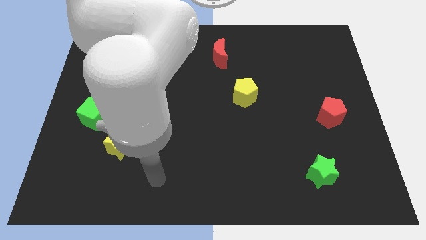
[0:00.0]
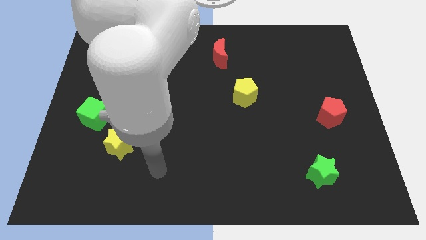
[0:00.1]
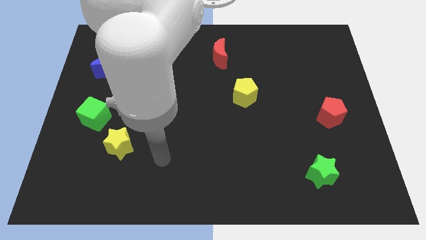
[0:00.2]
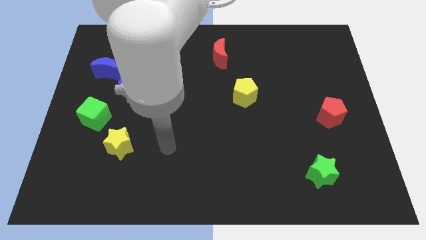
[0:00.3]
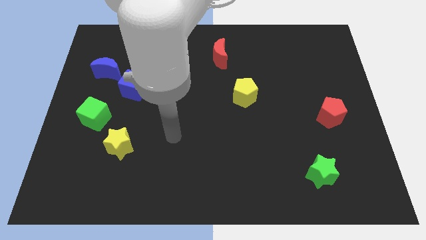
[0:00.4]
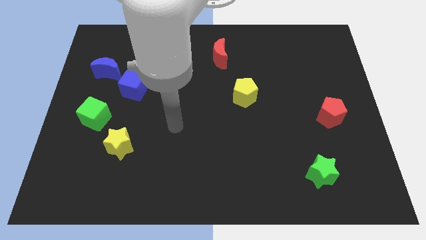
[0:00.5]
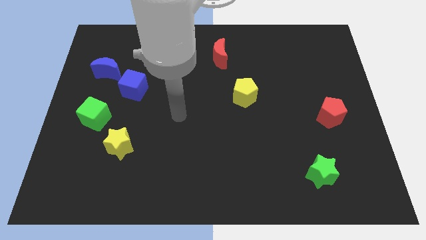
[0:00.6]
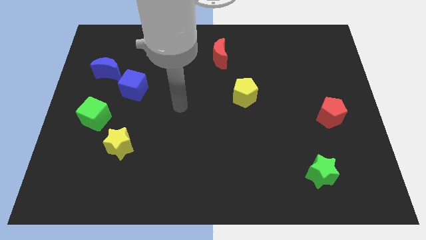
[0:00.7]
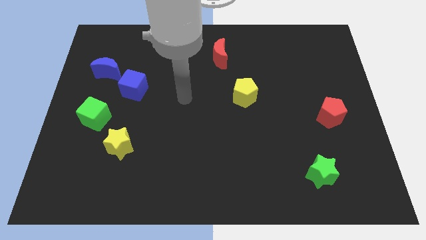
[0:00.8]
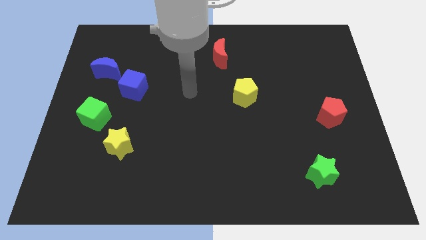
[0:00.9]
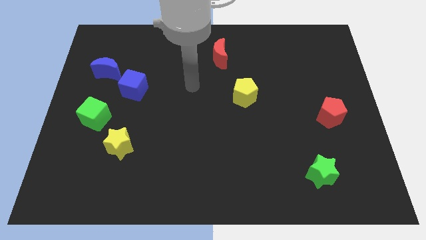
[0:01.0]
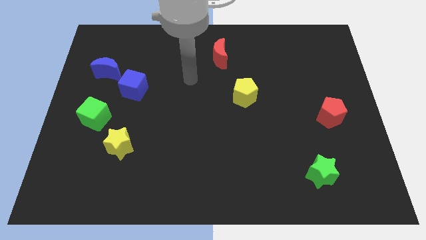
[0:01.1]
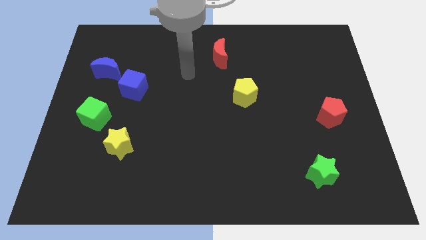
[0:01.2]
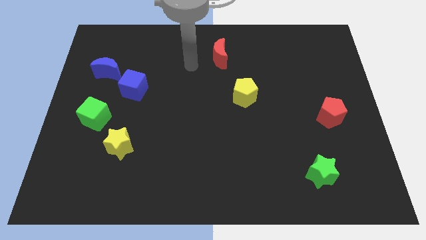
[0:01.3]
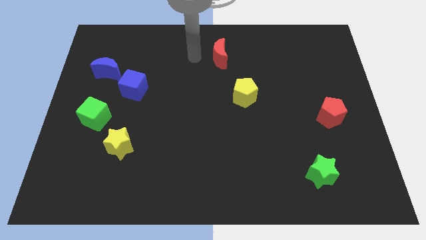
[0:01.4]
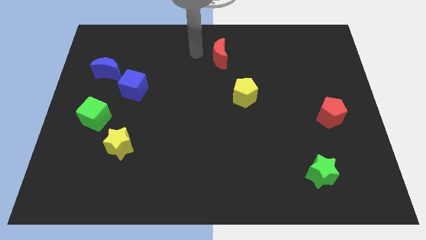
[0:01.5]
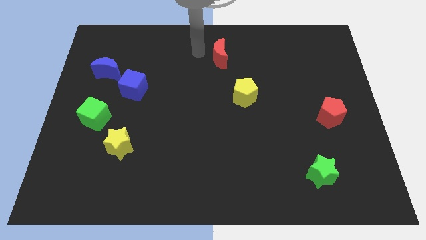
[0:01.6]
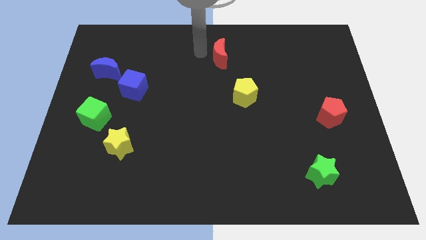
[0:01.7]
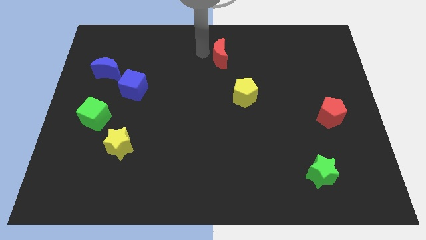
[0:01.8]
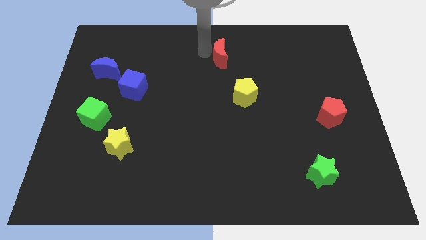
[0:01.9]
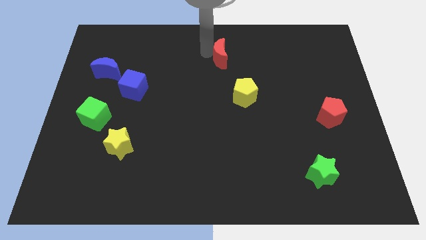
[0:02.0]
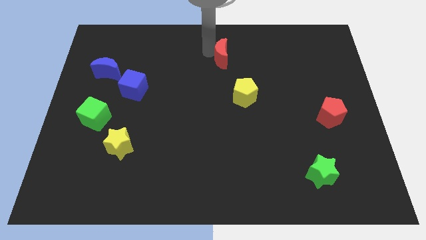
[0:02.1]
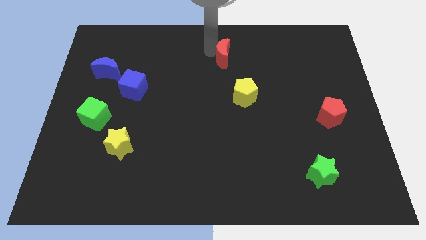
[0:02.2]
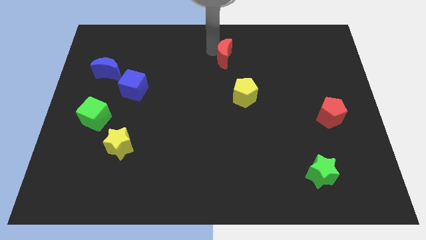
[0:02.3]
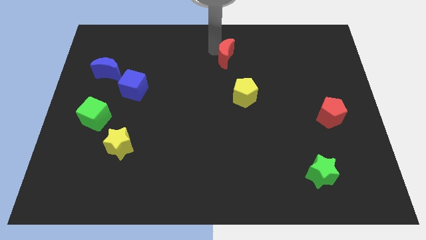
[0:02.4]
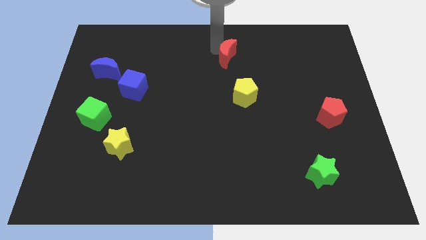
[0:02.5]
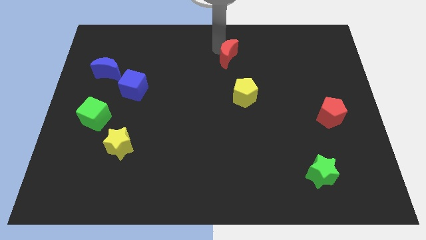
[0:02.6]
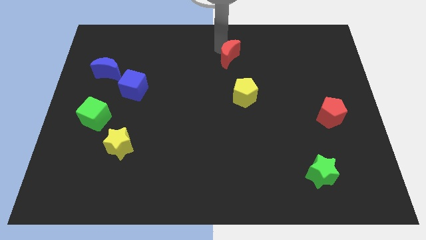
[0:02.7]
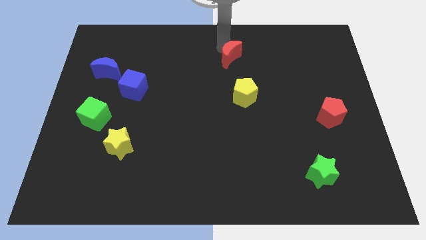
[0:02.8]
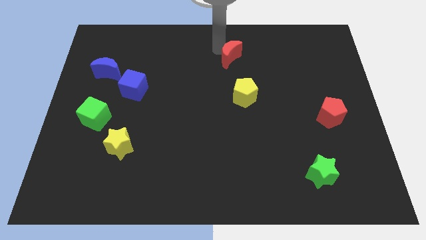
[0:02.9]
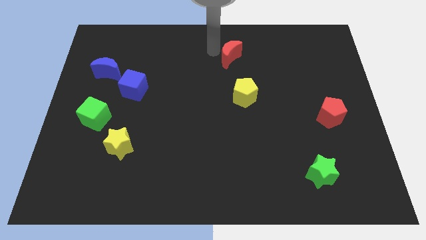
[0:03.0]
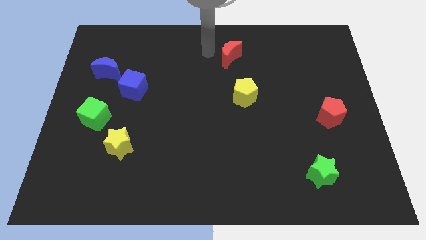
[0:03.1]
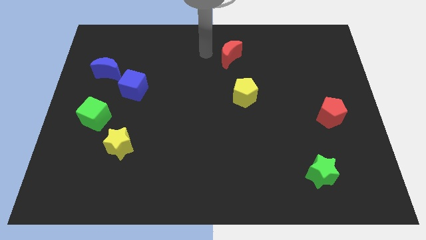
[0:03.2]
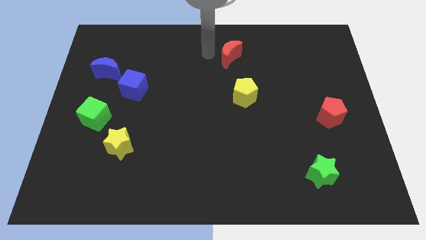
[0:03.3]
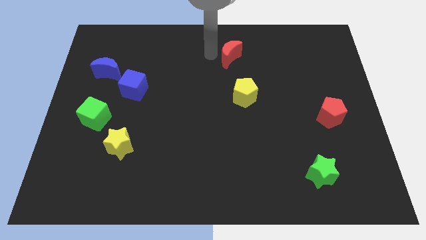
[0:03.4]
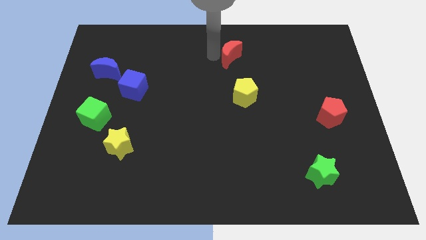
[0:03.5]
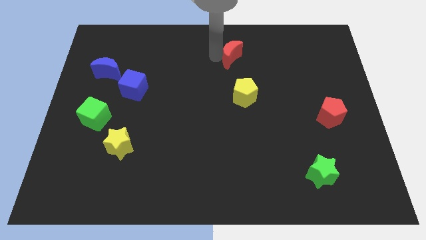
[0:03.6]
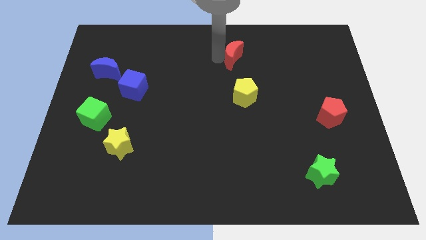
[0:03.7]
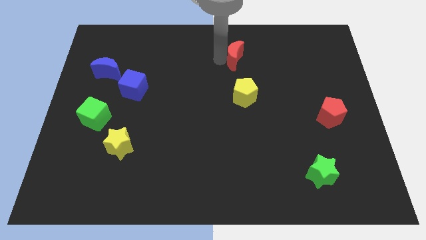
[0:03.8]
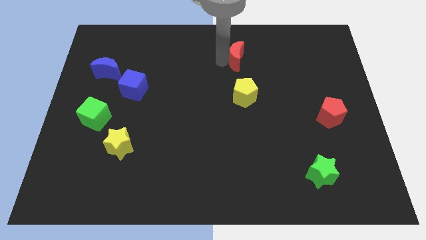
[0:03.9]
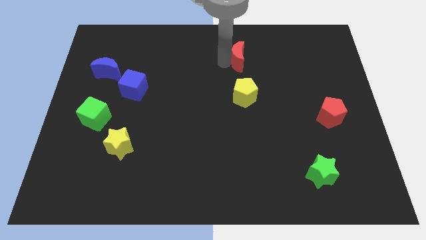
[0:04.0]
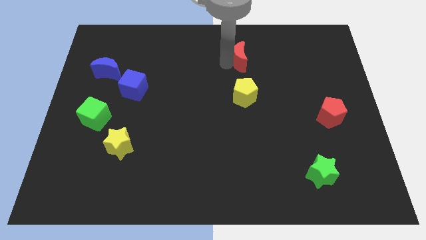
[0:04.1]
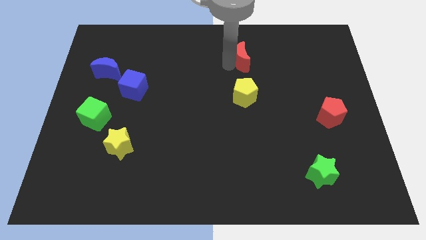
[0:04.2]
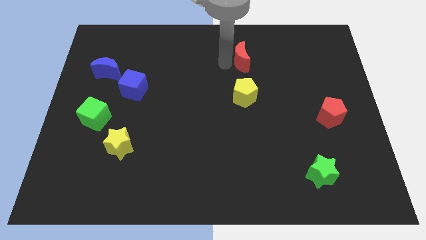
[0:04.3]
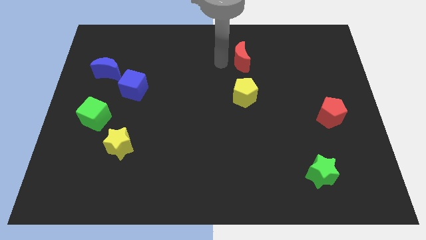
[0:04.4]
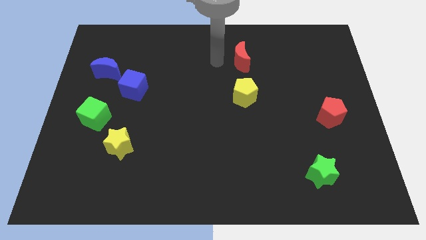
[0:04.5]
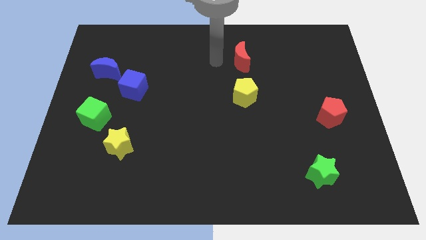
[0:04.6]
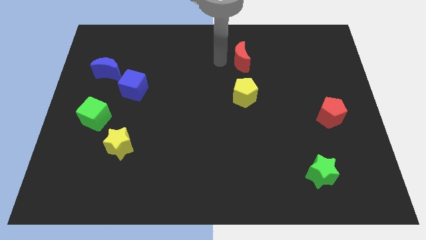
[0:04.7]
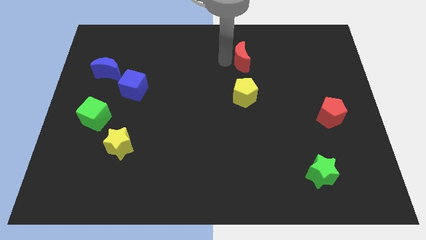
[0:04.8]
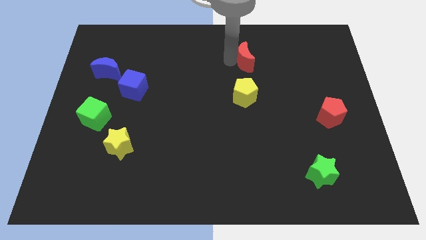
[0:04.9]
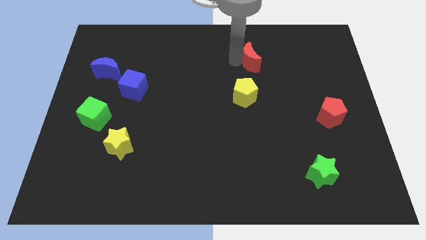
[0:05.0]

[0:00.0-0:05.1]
slightly slide the red moon right

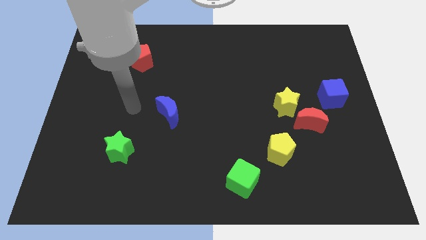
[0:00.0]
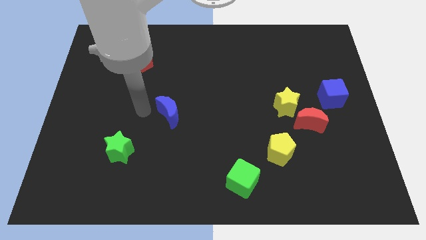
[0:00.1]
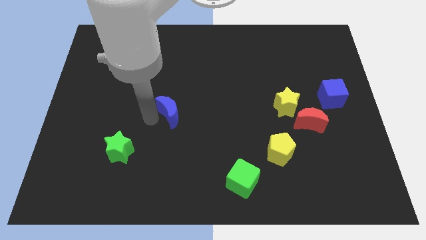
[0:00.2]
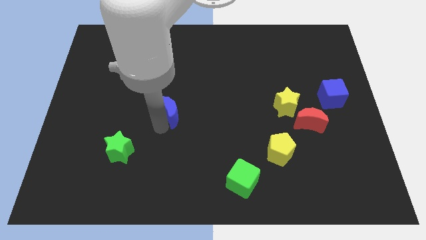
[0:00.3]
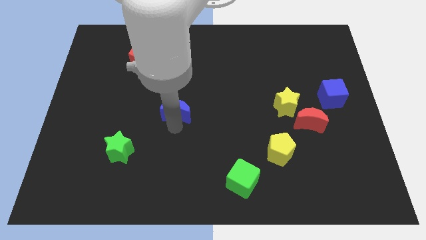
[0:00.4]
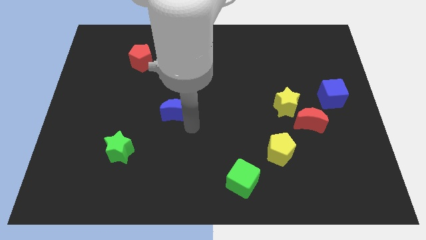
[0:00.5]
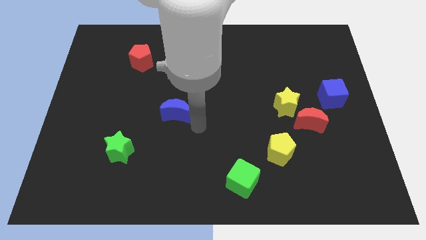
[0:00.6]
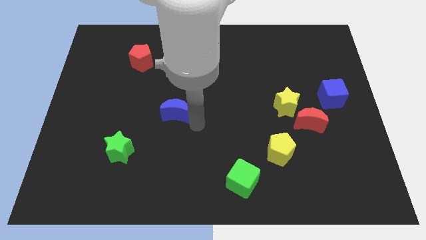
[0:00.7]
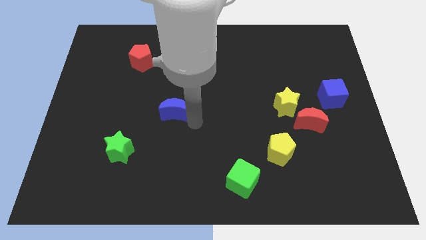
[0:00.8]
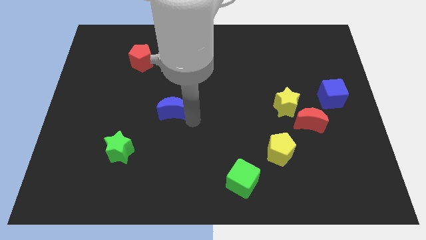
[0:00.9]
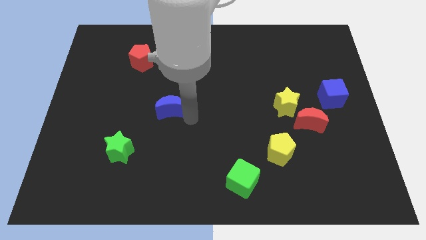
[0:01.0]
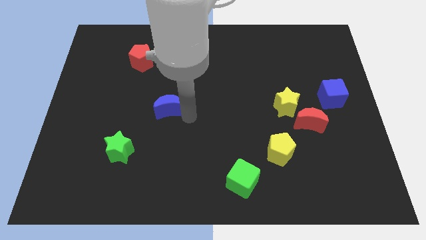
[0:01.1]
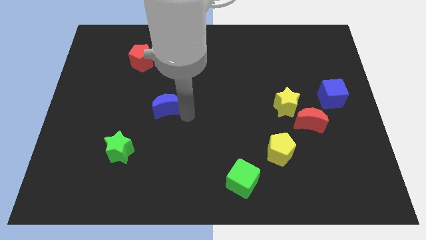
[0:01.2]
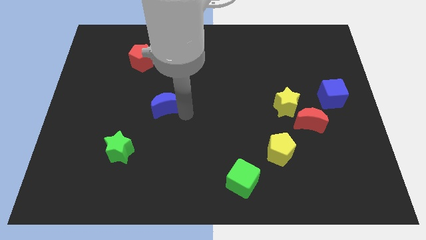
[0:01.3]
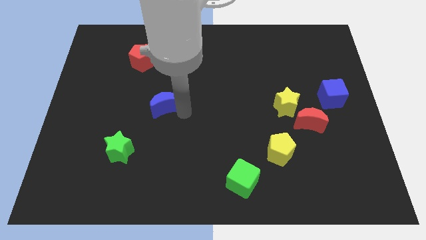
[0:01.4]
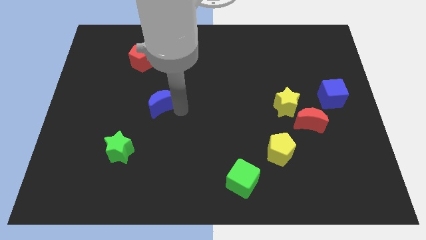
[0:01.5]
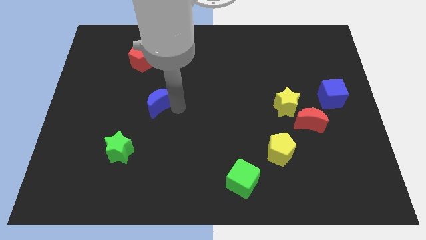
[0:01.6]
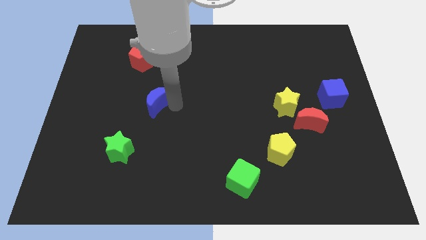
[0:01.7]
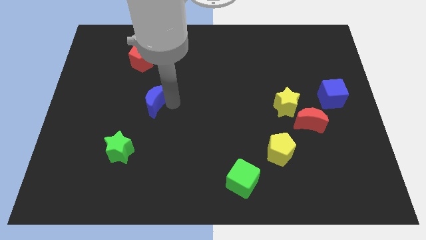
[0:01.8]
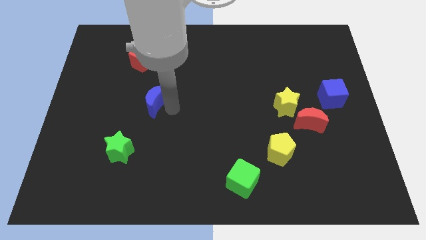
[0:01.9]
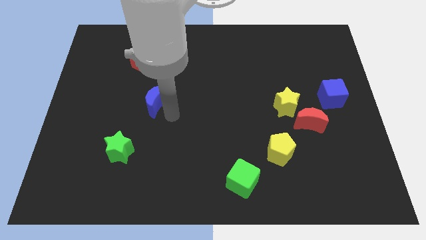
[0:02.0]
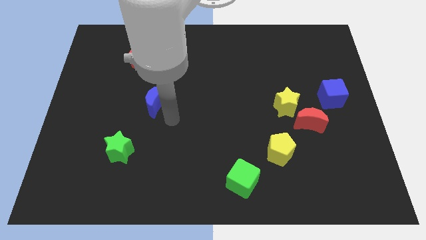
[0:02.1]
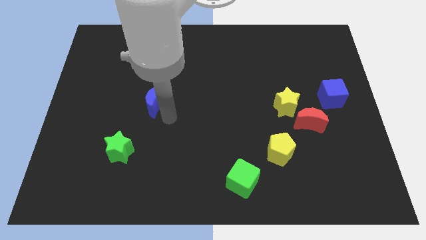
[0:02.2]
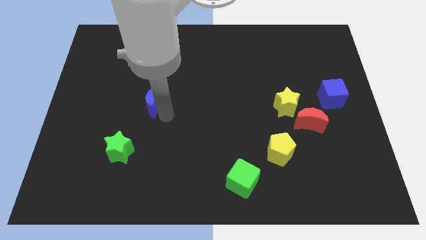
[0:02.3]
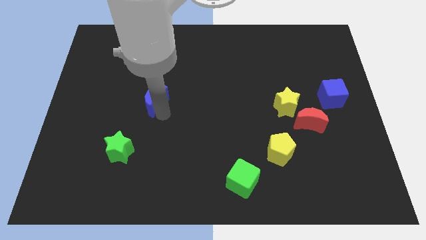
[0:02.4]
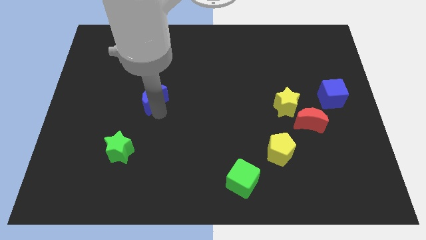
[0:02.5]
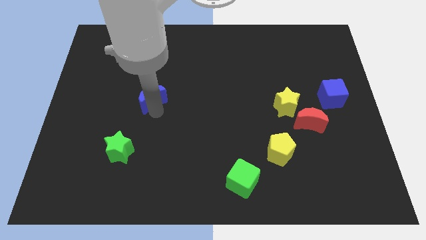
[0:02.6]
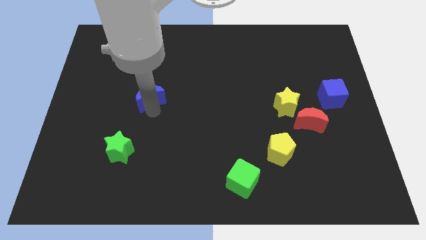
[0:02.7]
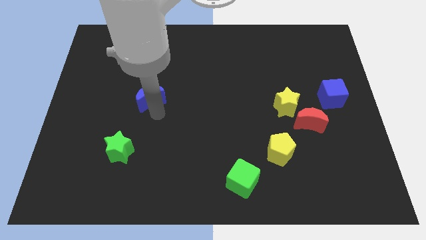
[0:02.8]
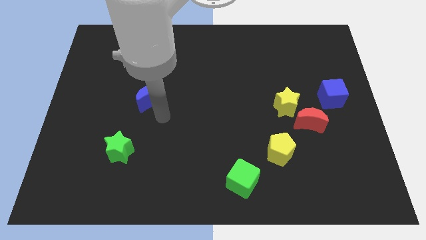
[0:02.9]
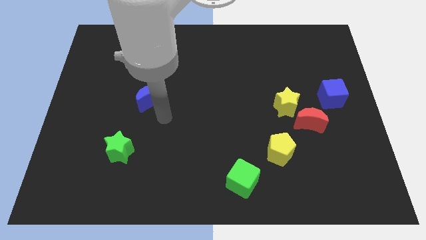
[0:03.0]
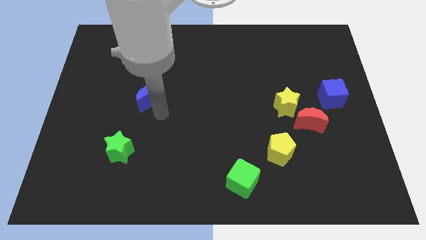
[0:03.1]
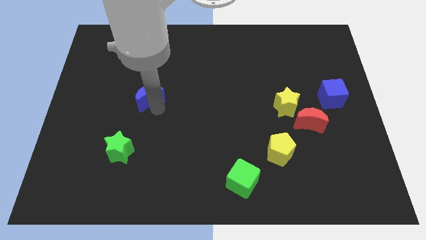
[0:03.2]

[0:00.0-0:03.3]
slightly push the blue moon diagonally up and left
